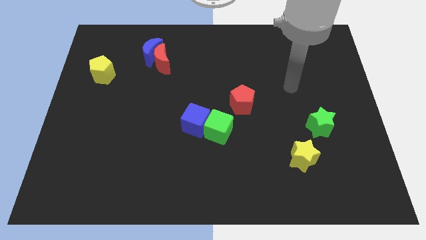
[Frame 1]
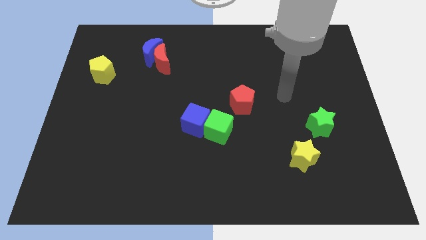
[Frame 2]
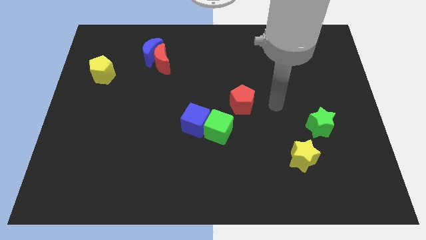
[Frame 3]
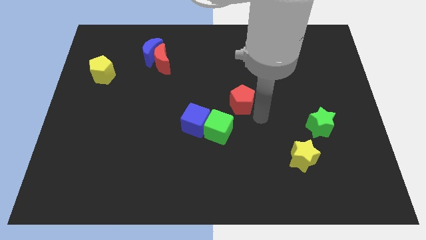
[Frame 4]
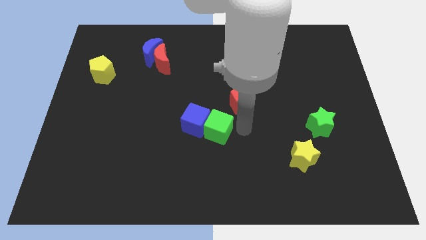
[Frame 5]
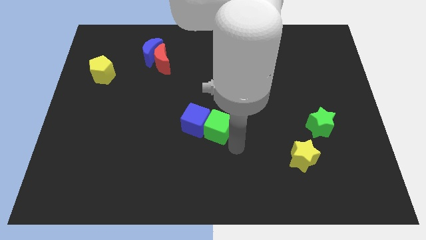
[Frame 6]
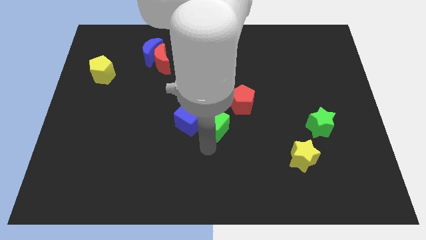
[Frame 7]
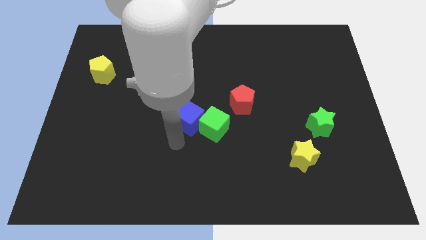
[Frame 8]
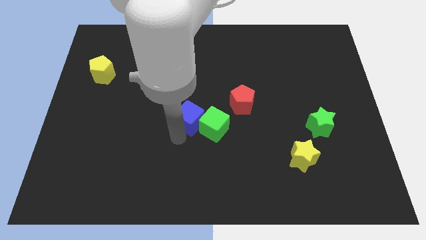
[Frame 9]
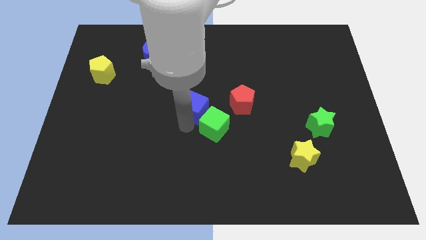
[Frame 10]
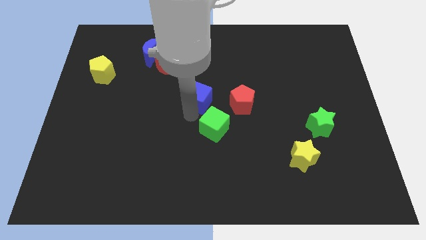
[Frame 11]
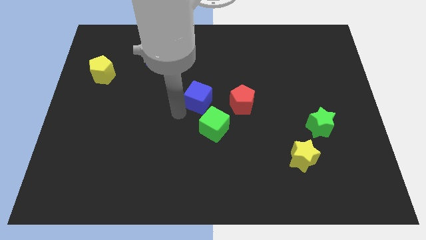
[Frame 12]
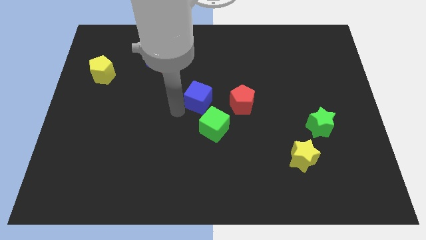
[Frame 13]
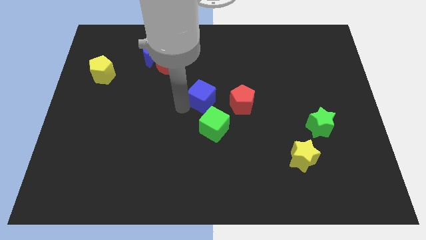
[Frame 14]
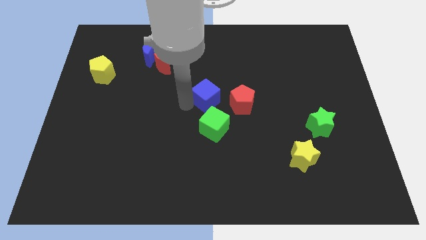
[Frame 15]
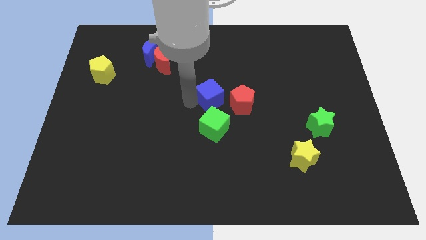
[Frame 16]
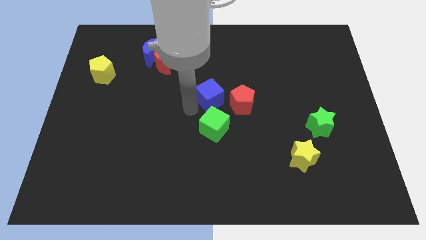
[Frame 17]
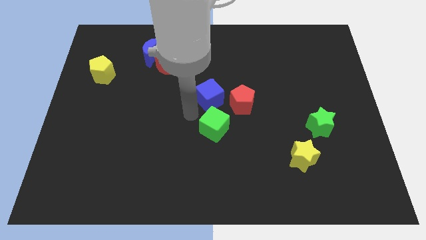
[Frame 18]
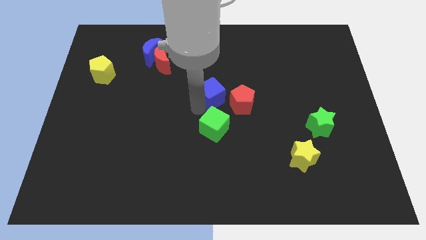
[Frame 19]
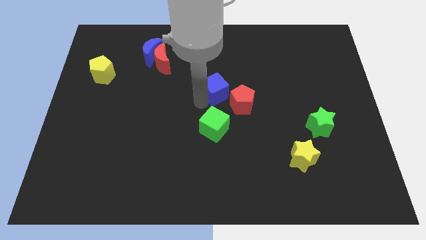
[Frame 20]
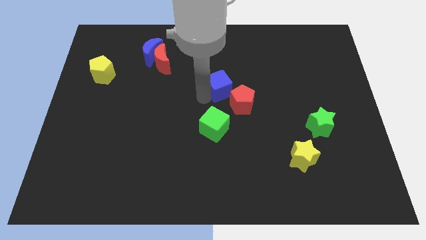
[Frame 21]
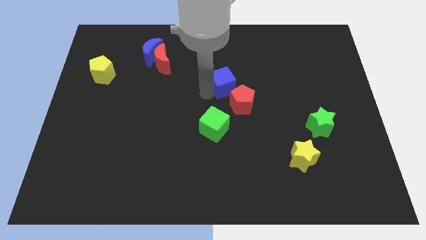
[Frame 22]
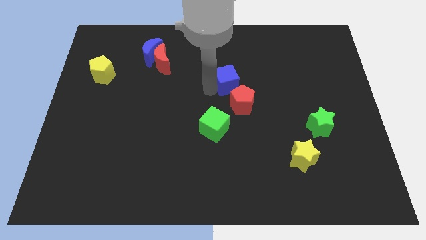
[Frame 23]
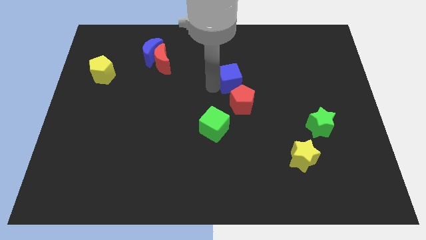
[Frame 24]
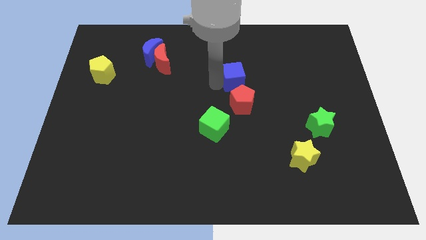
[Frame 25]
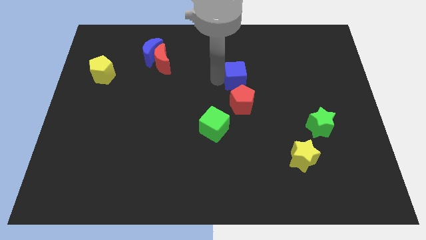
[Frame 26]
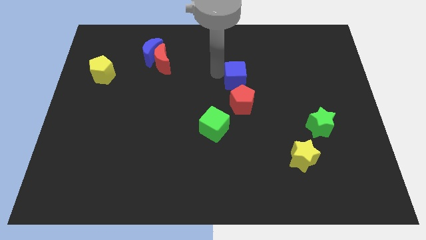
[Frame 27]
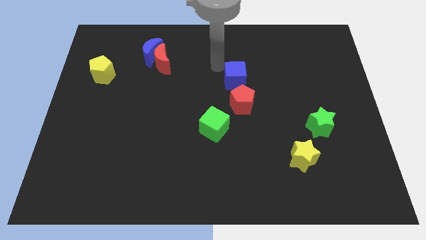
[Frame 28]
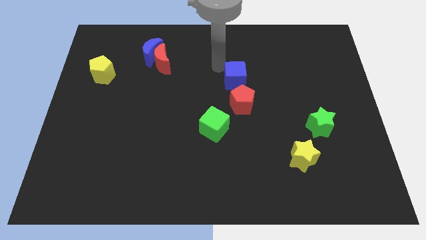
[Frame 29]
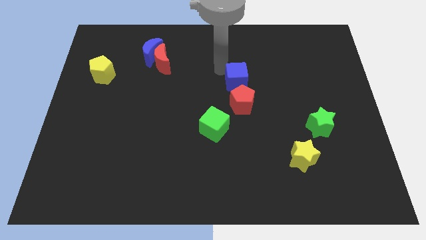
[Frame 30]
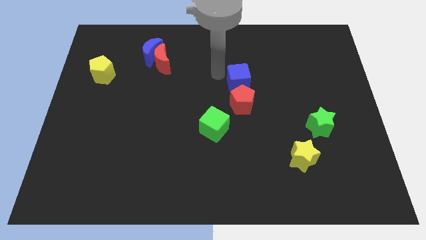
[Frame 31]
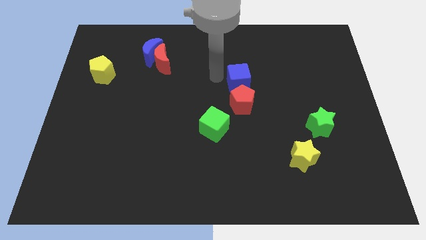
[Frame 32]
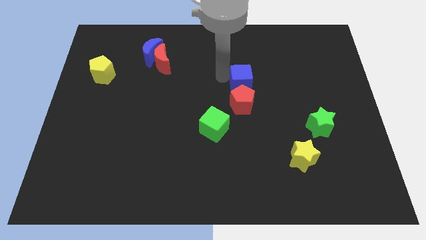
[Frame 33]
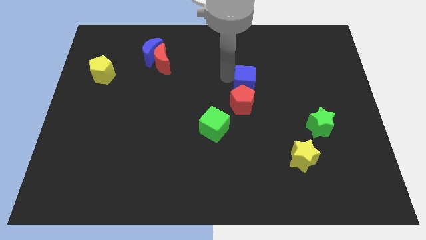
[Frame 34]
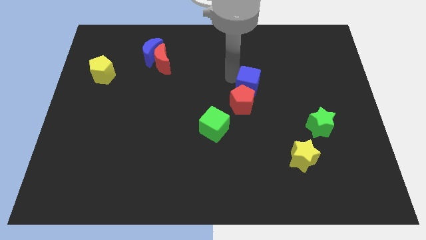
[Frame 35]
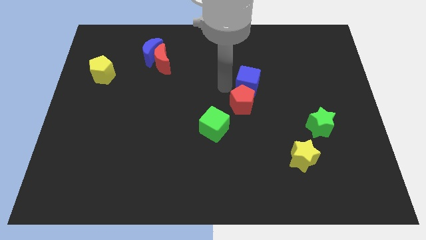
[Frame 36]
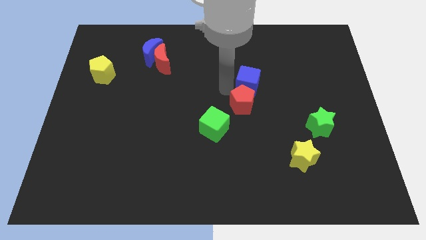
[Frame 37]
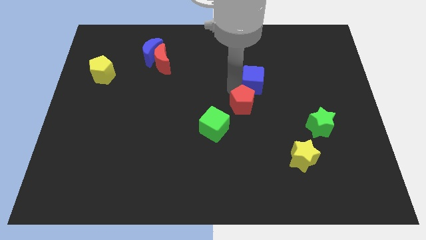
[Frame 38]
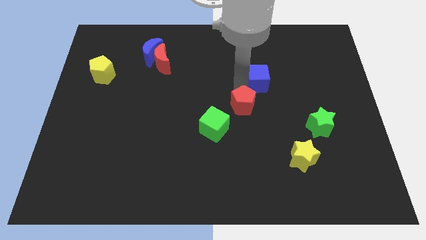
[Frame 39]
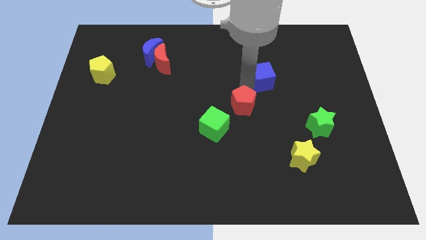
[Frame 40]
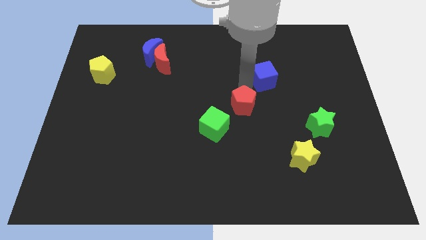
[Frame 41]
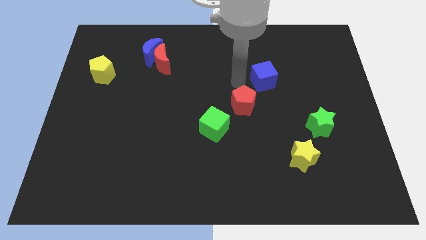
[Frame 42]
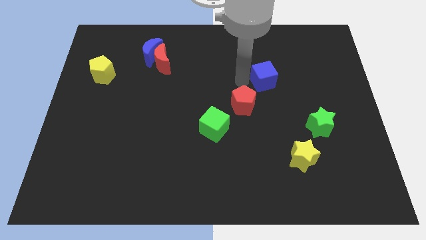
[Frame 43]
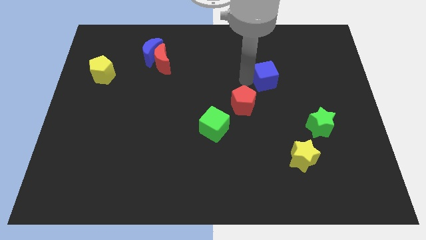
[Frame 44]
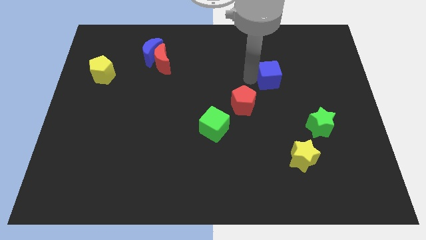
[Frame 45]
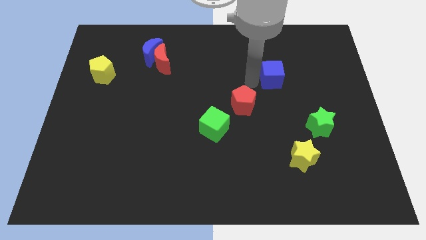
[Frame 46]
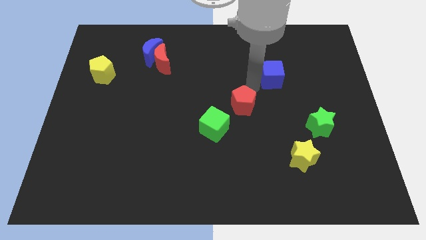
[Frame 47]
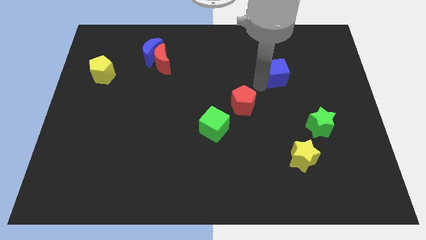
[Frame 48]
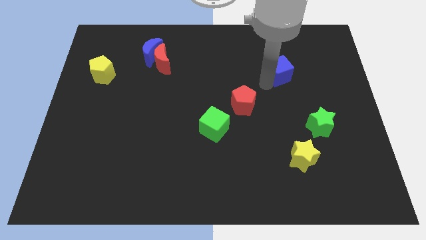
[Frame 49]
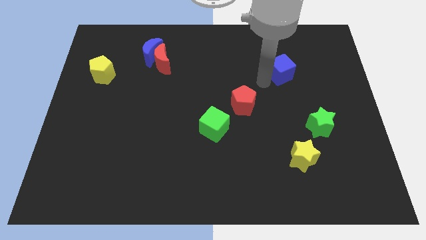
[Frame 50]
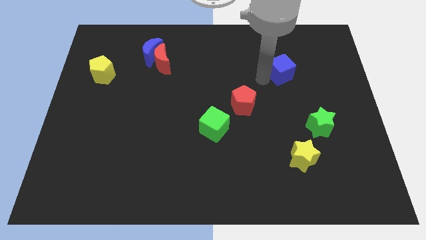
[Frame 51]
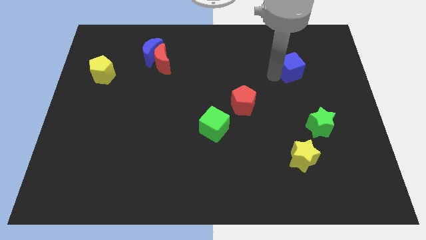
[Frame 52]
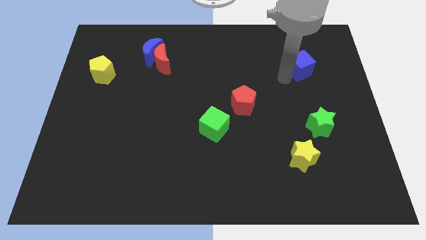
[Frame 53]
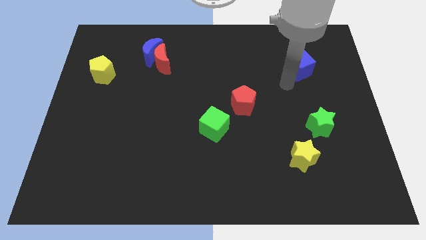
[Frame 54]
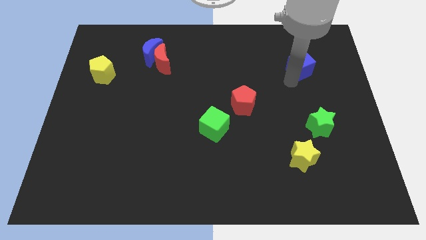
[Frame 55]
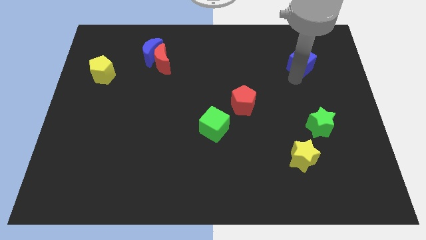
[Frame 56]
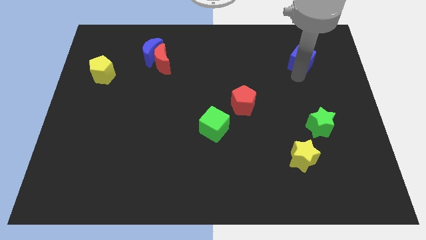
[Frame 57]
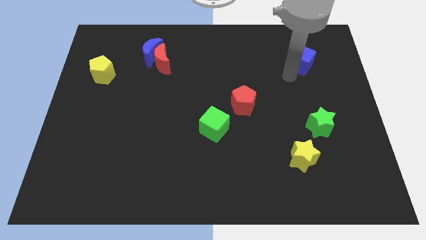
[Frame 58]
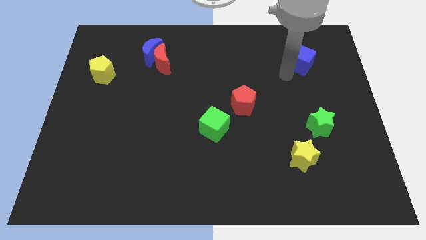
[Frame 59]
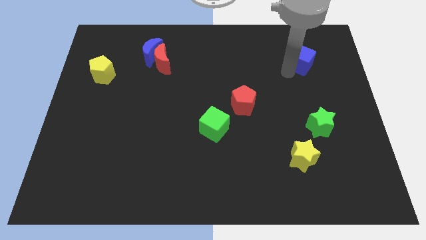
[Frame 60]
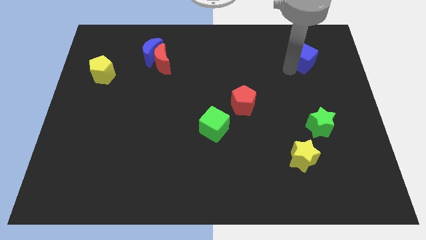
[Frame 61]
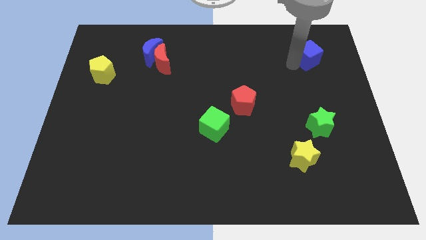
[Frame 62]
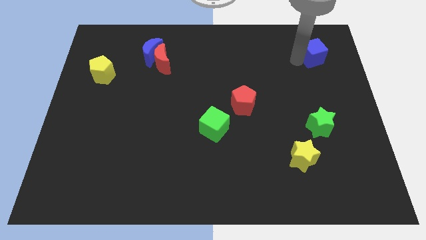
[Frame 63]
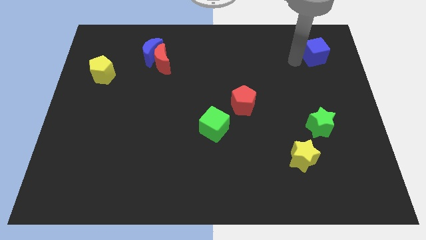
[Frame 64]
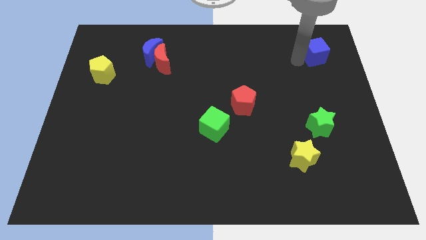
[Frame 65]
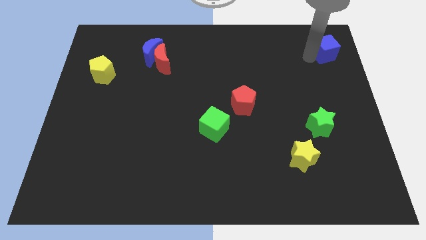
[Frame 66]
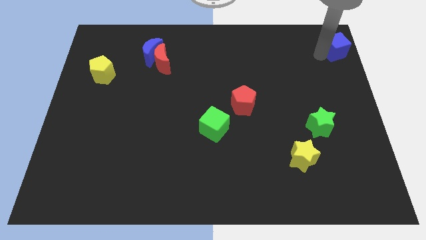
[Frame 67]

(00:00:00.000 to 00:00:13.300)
move the blue cube to the top right
